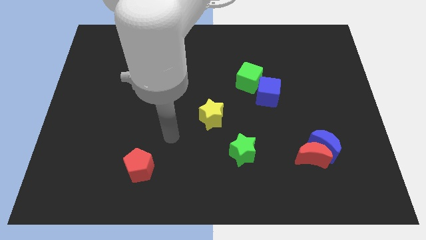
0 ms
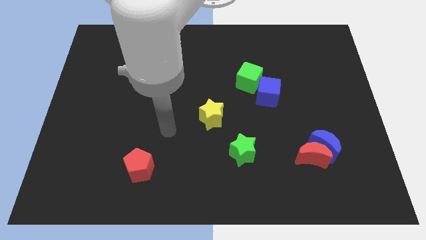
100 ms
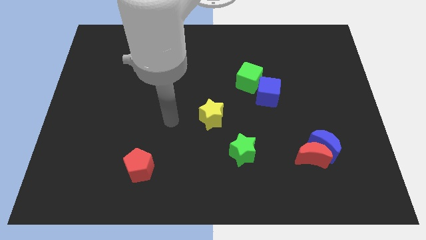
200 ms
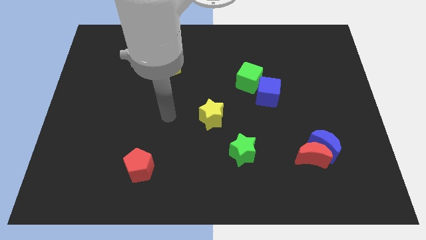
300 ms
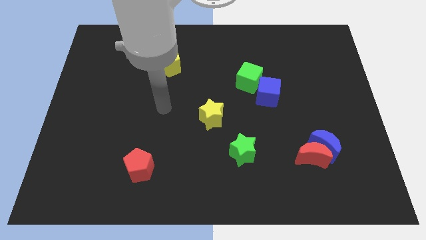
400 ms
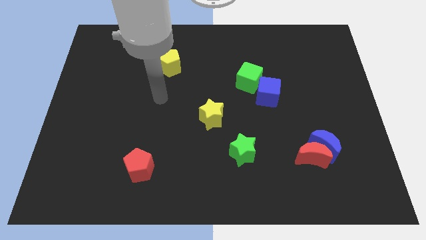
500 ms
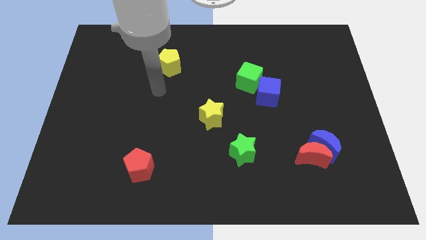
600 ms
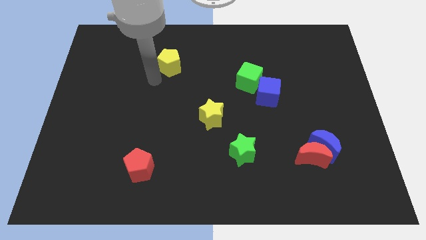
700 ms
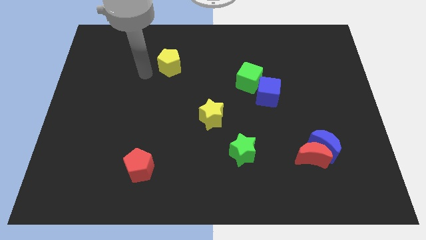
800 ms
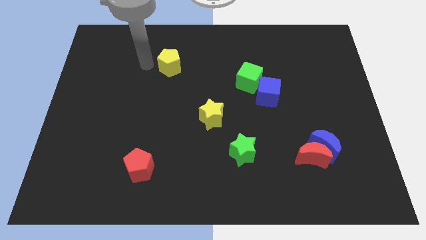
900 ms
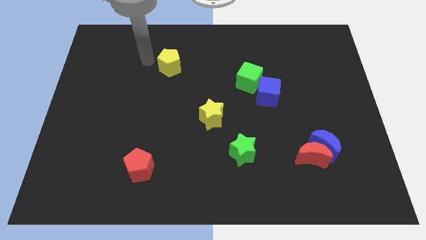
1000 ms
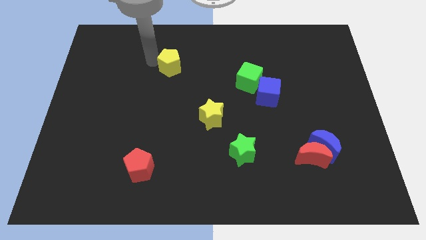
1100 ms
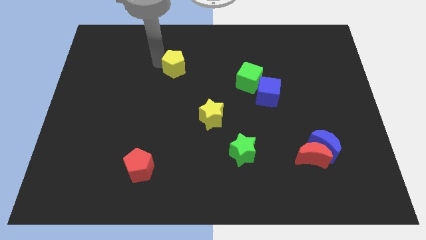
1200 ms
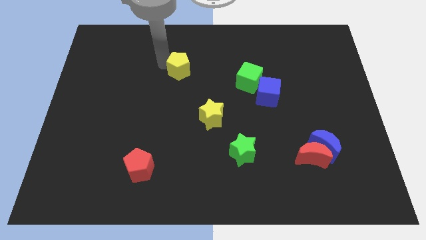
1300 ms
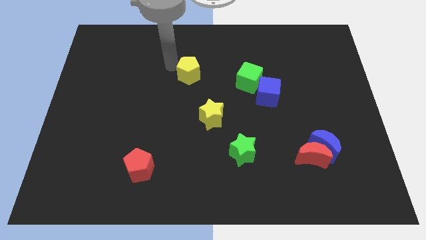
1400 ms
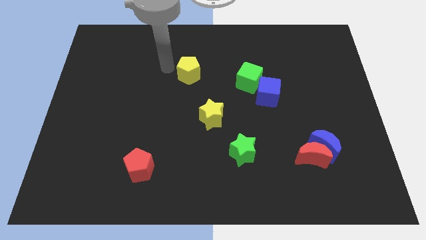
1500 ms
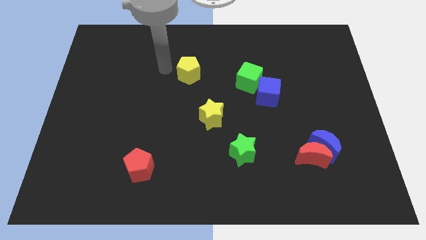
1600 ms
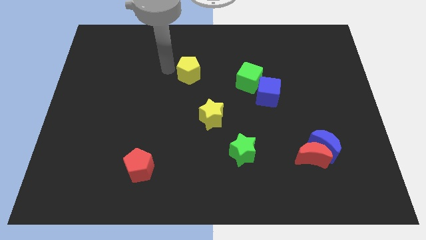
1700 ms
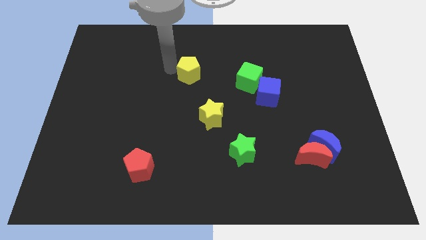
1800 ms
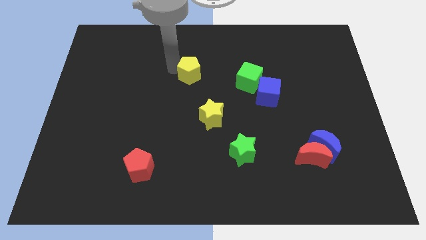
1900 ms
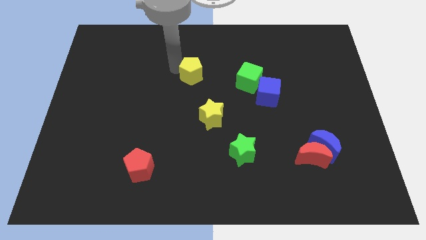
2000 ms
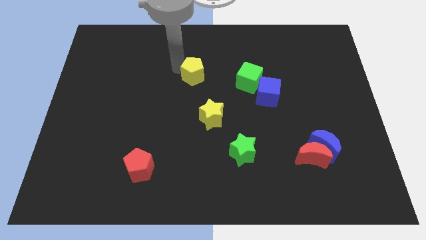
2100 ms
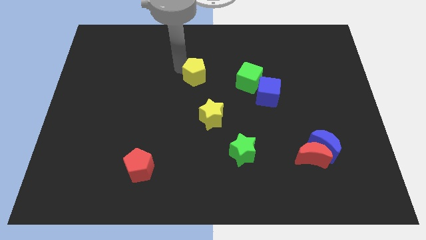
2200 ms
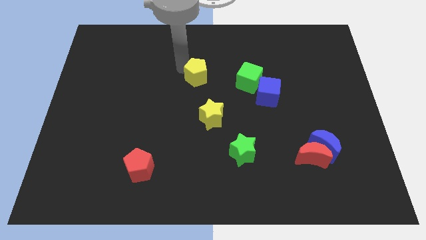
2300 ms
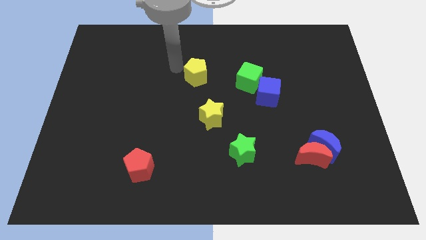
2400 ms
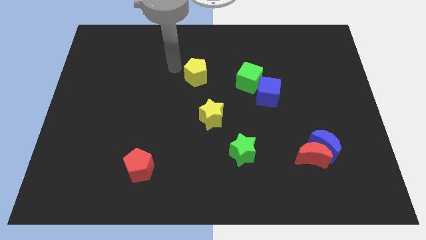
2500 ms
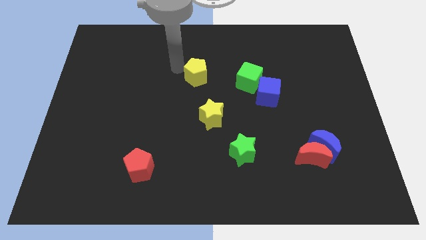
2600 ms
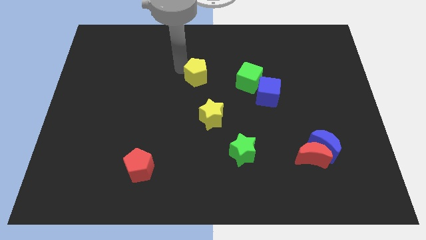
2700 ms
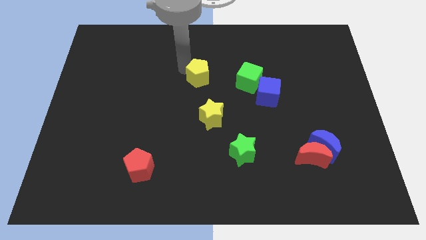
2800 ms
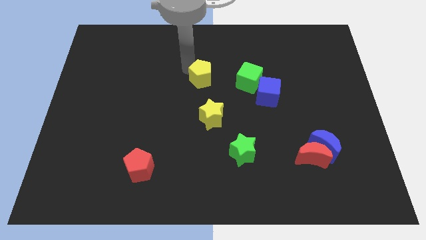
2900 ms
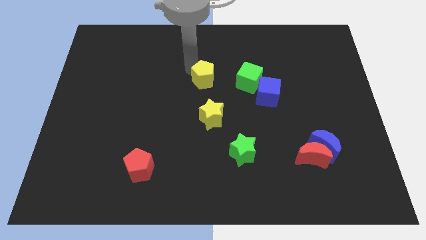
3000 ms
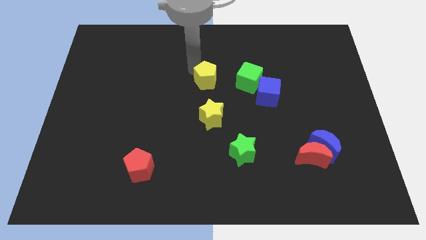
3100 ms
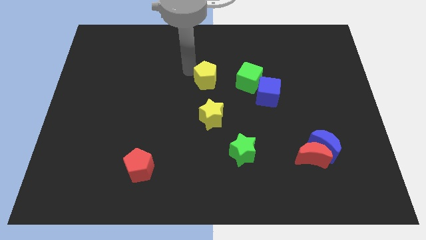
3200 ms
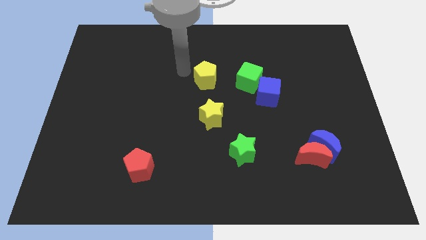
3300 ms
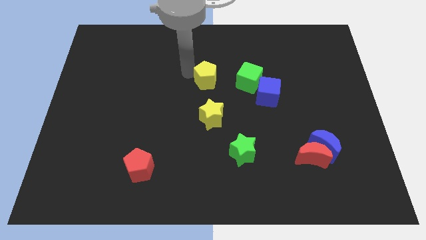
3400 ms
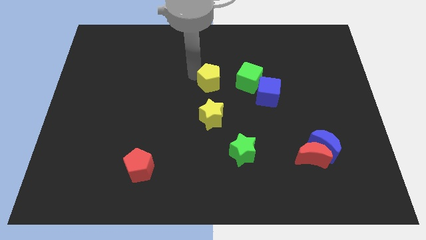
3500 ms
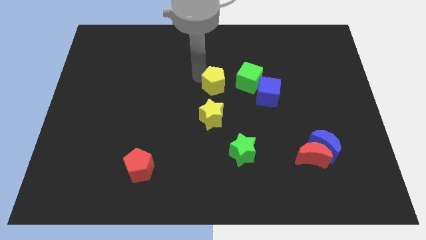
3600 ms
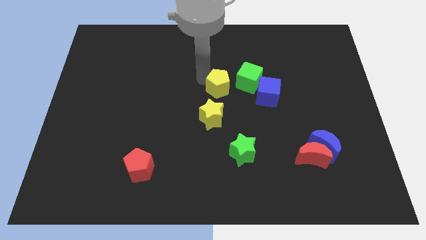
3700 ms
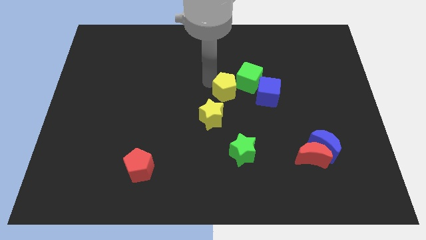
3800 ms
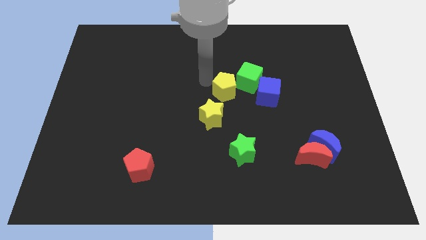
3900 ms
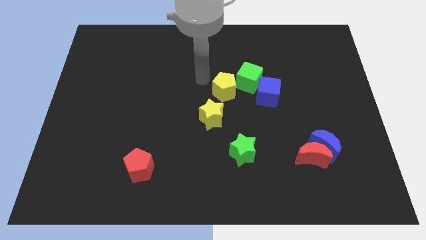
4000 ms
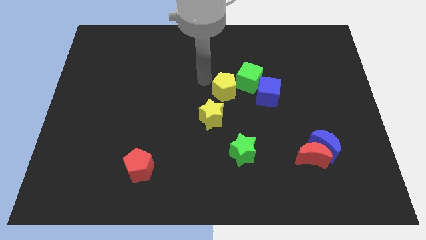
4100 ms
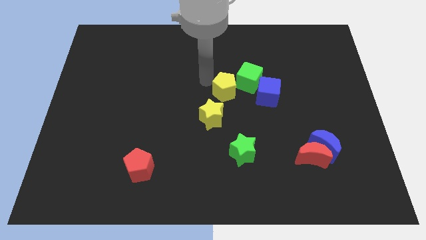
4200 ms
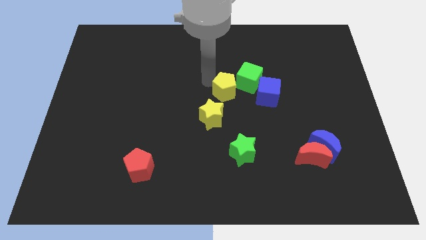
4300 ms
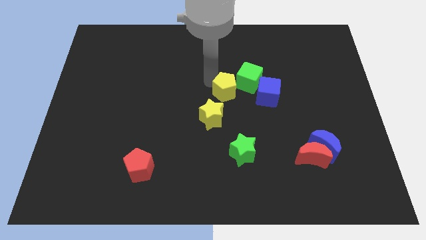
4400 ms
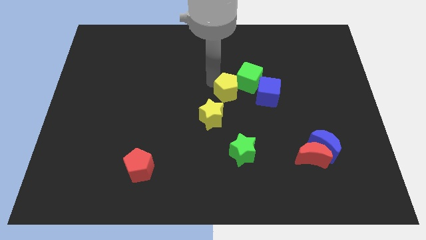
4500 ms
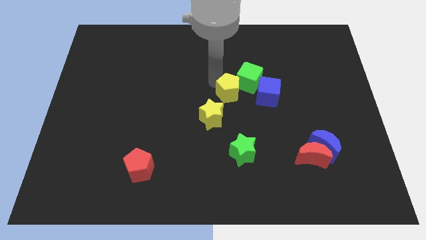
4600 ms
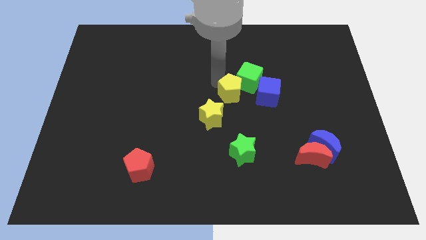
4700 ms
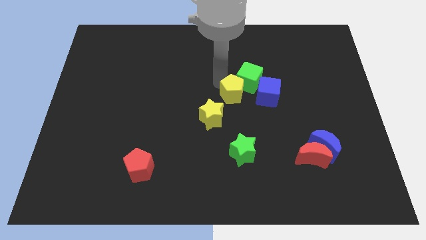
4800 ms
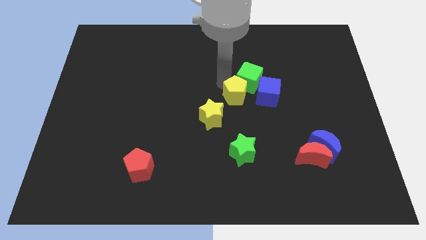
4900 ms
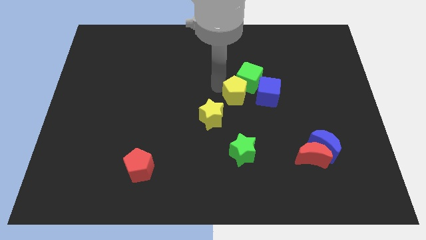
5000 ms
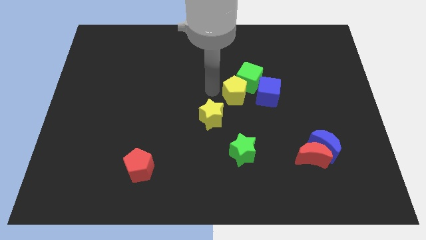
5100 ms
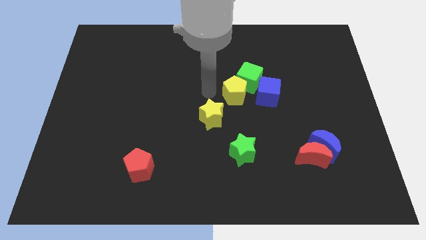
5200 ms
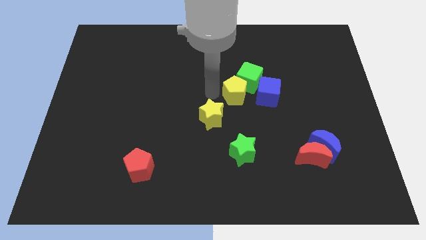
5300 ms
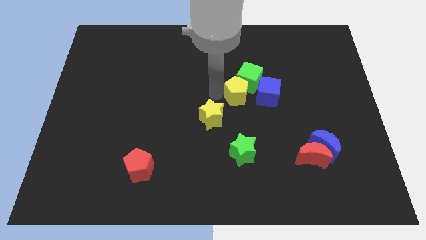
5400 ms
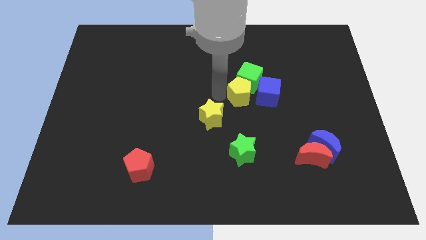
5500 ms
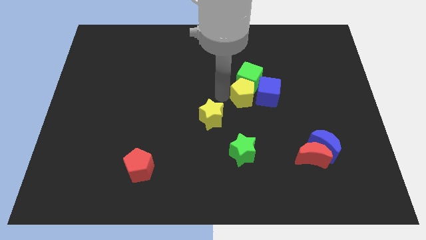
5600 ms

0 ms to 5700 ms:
put the yellow pentagon towards the blue cube

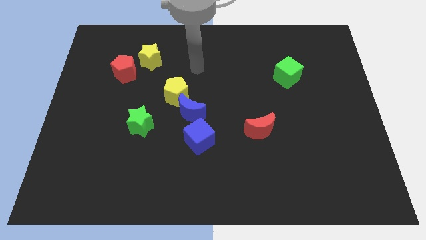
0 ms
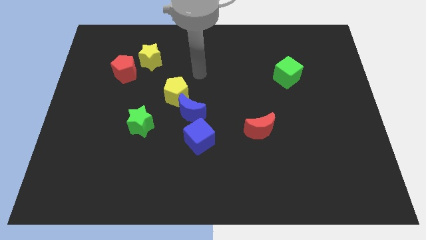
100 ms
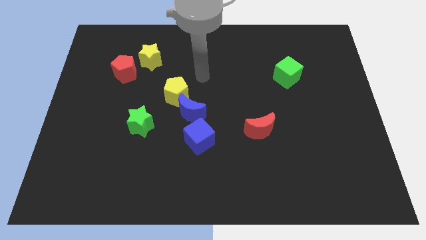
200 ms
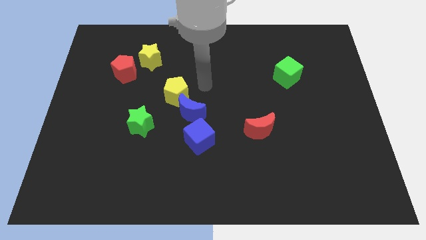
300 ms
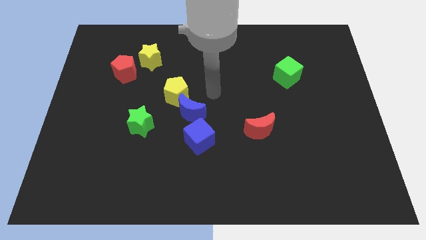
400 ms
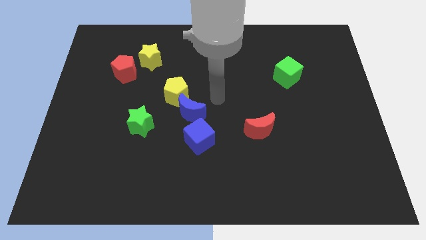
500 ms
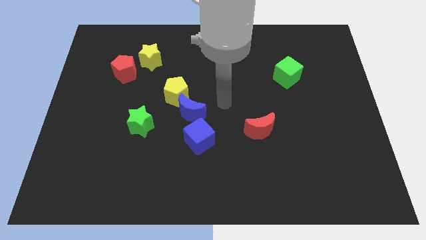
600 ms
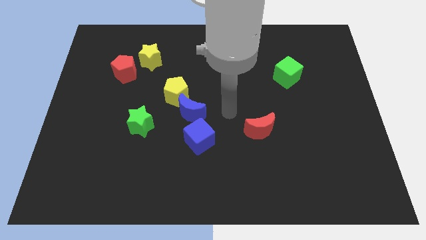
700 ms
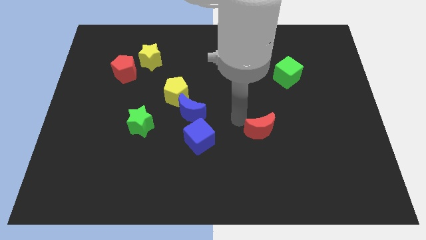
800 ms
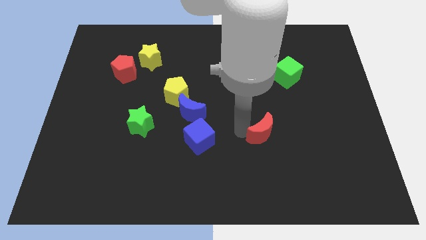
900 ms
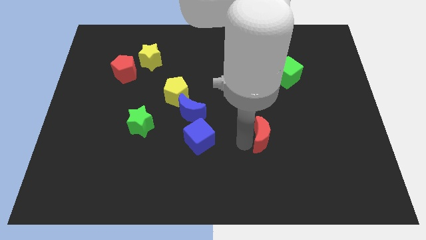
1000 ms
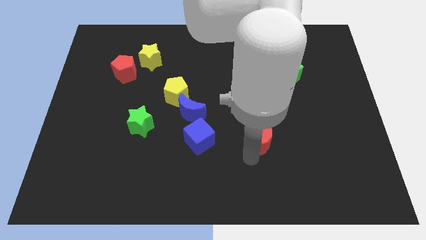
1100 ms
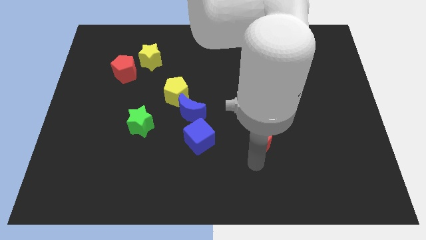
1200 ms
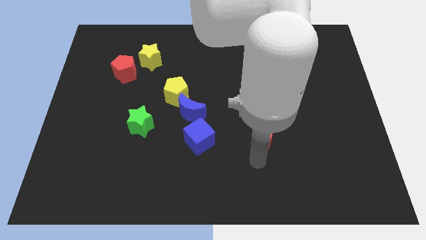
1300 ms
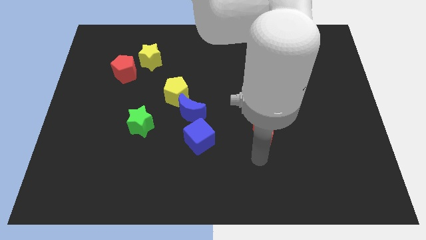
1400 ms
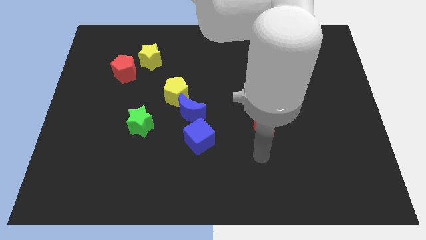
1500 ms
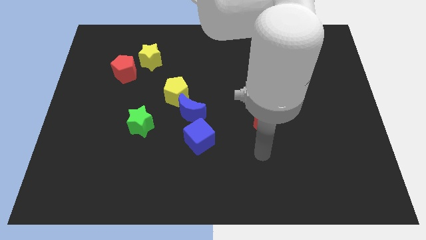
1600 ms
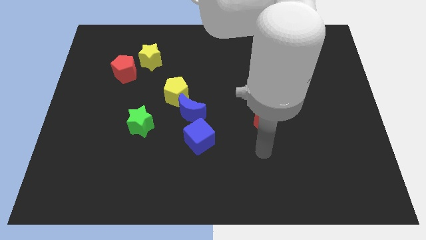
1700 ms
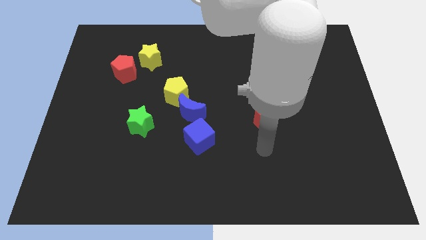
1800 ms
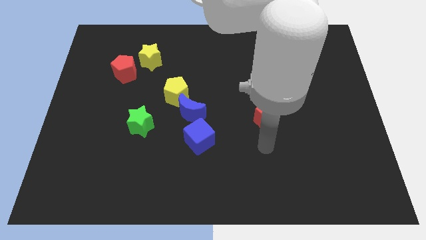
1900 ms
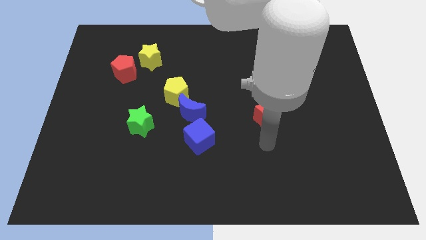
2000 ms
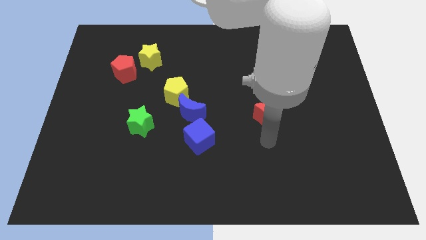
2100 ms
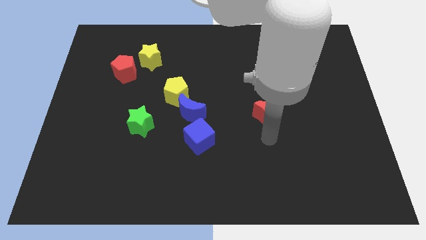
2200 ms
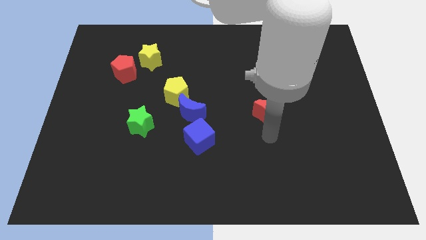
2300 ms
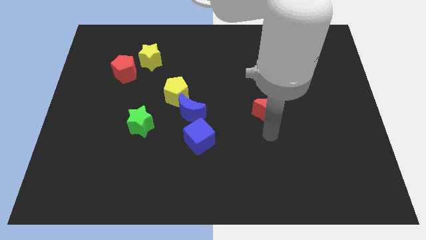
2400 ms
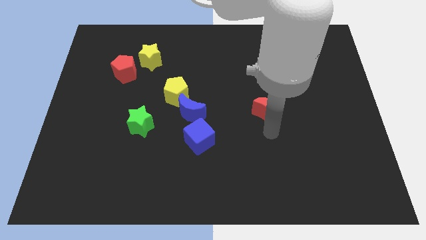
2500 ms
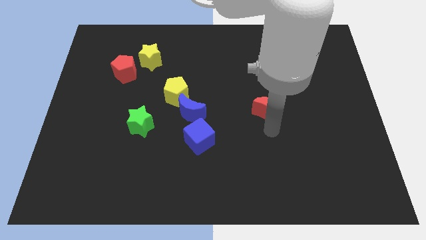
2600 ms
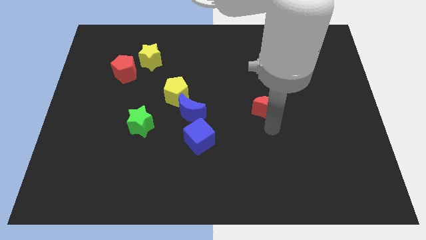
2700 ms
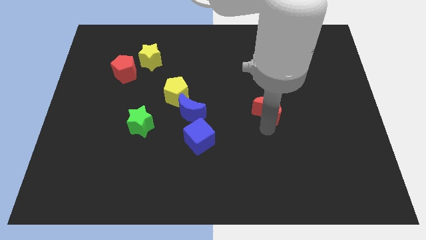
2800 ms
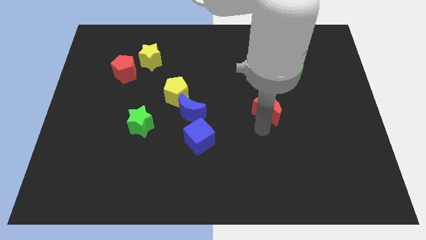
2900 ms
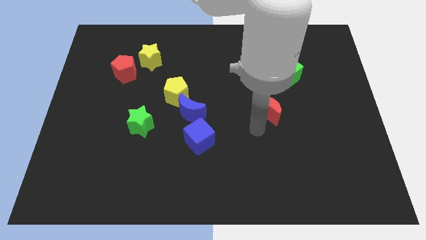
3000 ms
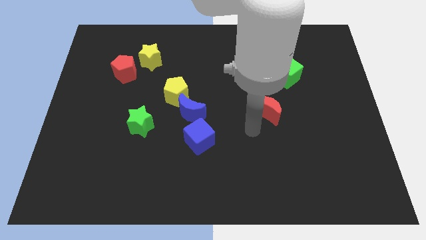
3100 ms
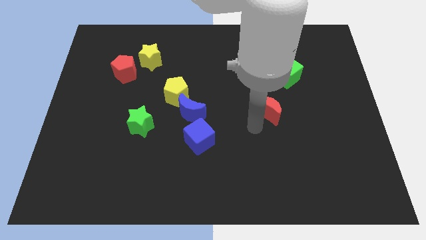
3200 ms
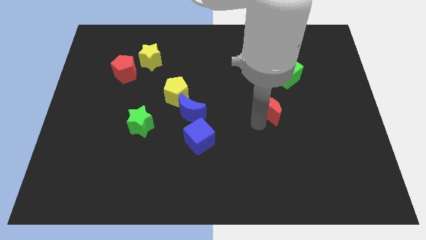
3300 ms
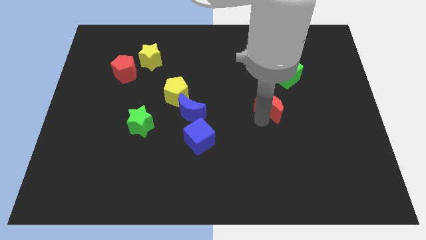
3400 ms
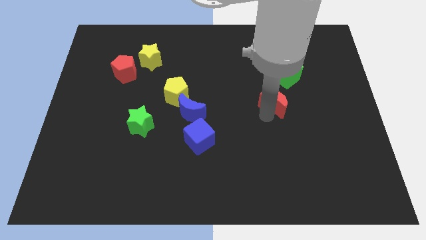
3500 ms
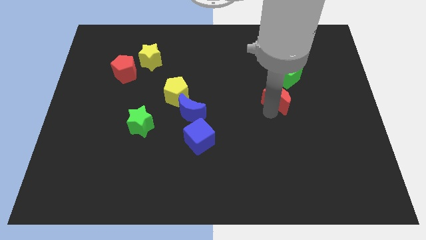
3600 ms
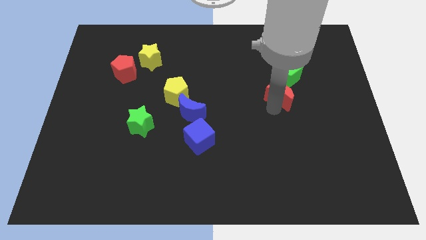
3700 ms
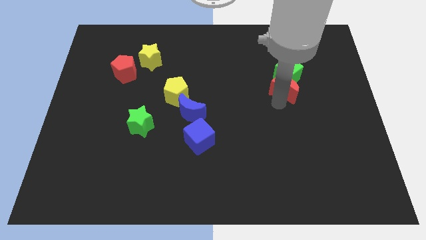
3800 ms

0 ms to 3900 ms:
move the red moon next to the green cube
